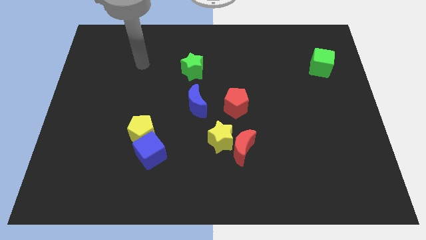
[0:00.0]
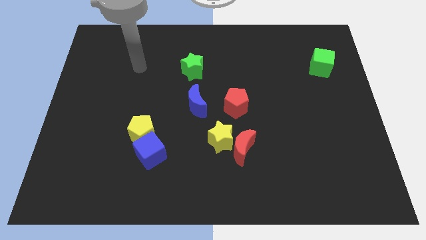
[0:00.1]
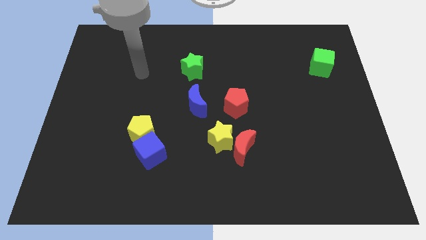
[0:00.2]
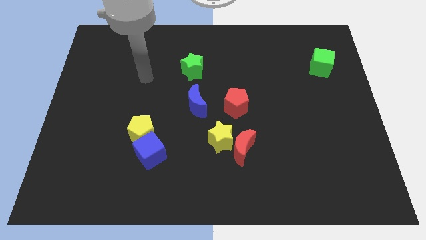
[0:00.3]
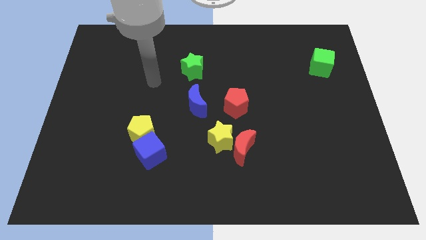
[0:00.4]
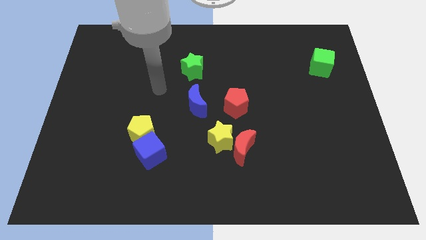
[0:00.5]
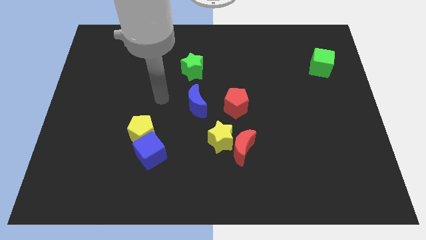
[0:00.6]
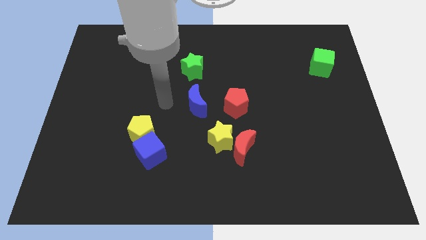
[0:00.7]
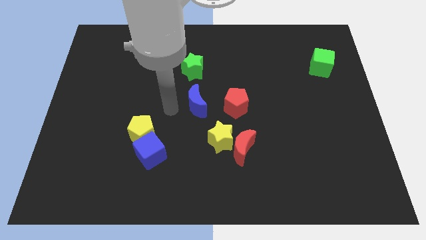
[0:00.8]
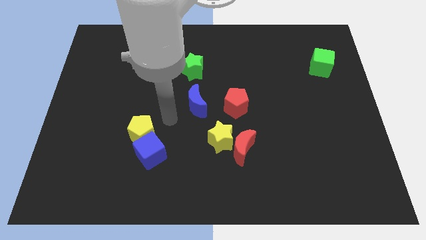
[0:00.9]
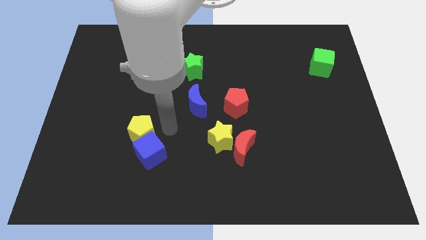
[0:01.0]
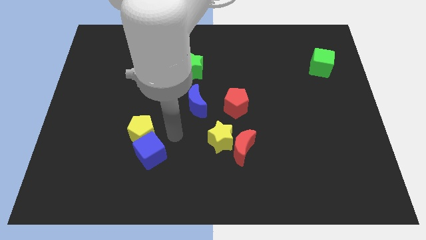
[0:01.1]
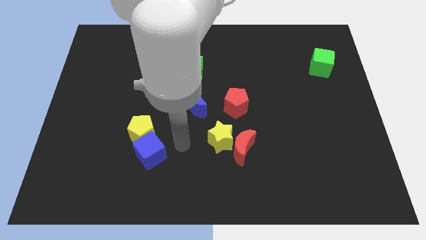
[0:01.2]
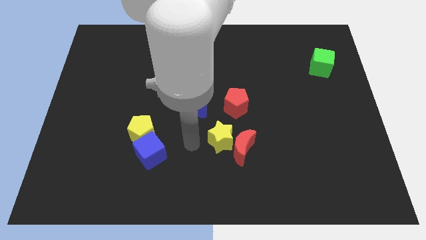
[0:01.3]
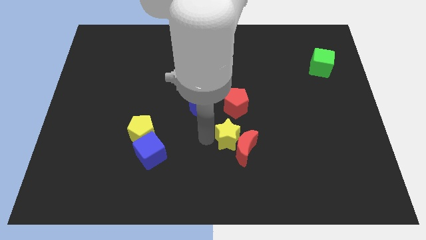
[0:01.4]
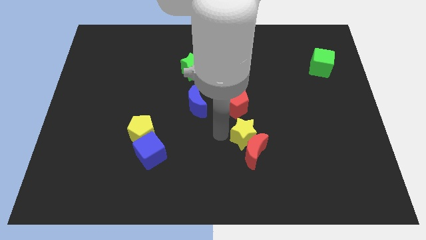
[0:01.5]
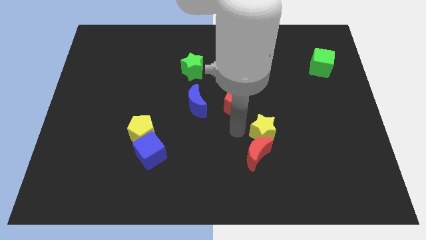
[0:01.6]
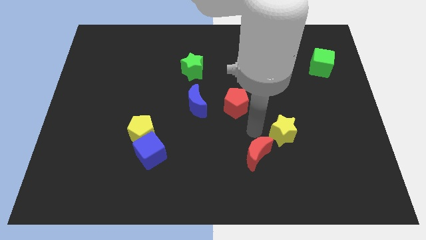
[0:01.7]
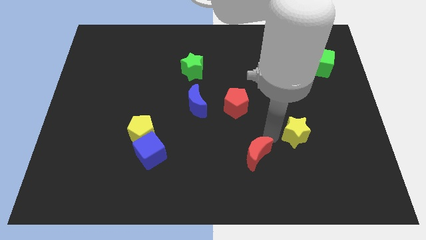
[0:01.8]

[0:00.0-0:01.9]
pull the red moon apart from the yellow star

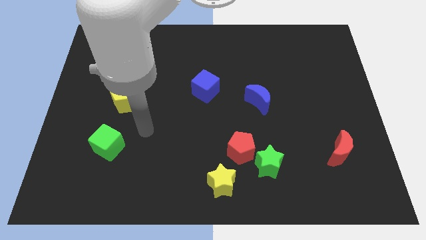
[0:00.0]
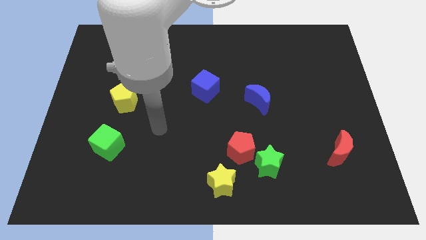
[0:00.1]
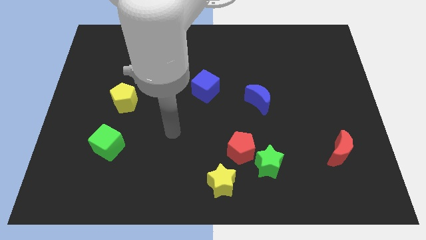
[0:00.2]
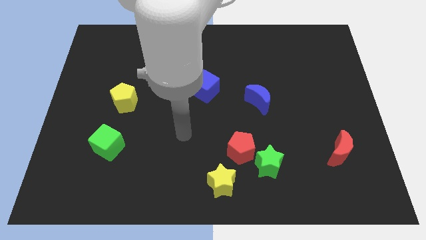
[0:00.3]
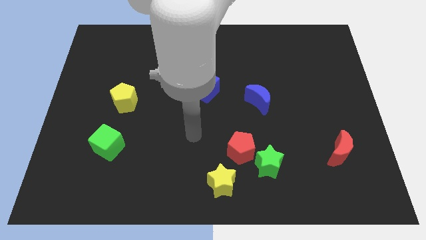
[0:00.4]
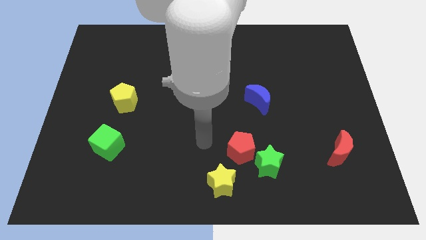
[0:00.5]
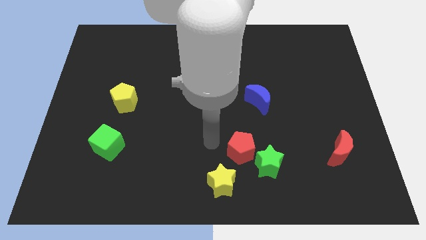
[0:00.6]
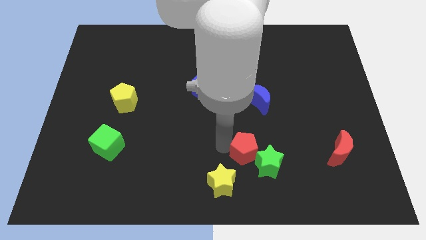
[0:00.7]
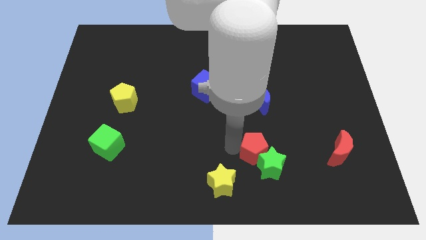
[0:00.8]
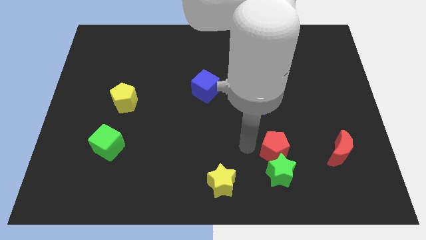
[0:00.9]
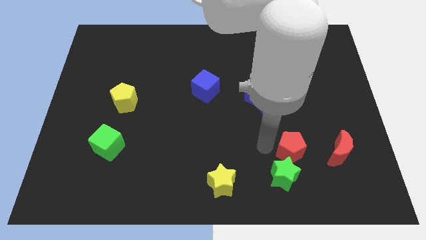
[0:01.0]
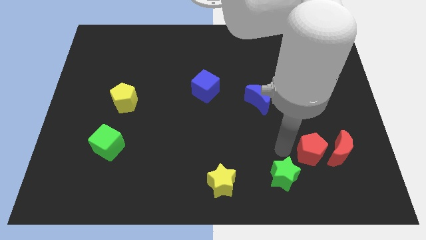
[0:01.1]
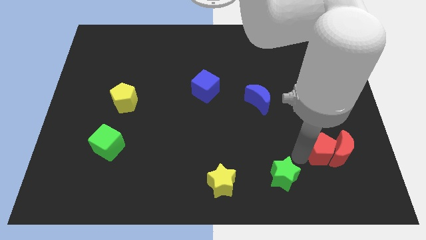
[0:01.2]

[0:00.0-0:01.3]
pull the green star apart from the red pentagon

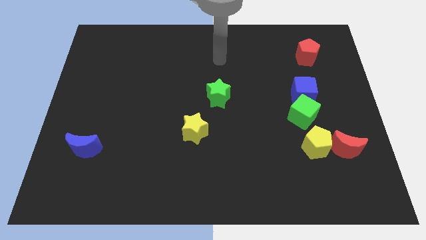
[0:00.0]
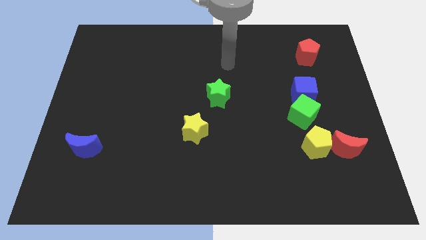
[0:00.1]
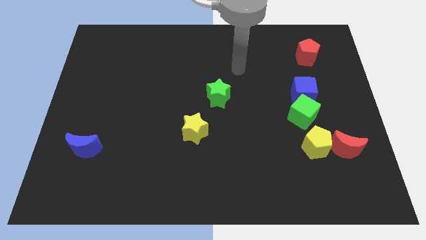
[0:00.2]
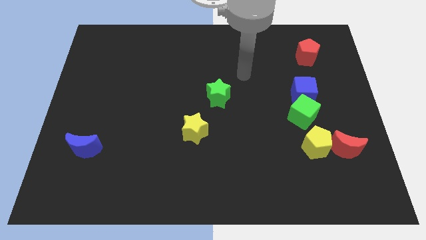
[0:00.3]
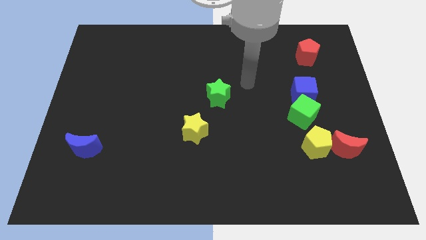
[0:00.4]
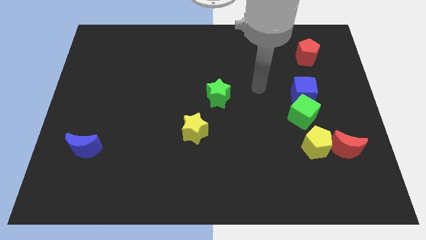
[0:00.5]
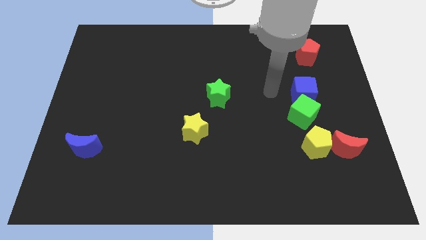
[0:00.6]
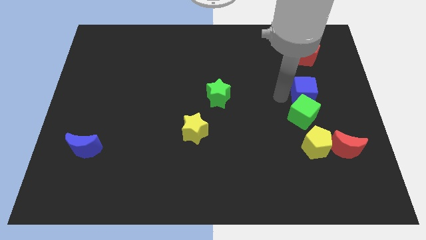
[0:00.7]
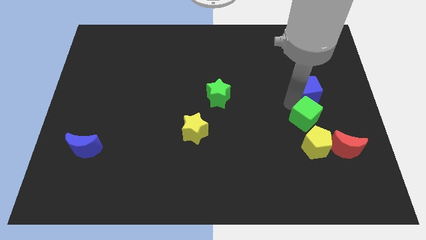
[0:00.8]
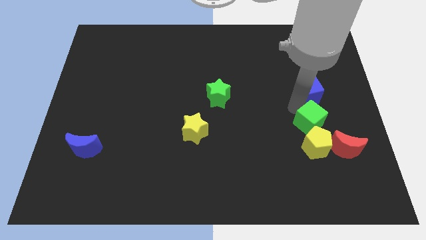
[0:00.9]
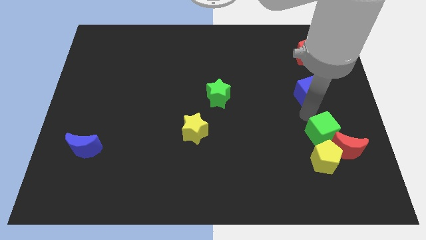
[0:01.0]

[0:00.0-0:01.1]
separate the blue cube from the green cube

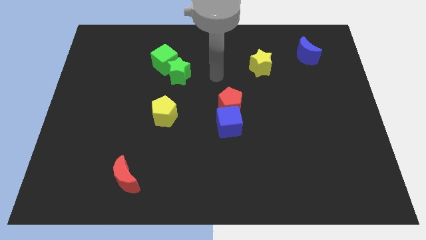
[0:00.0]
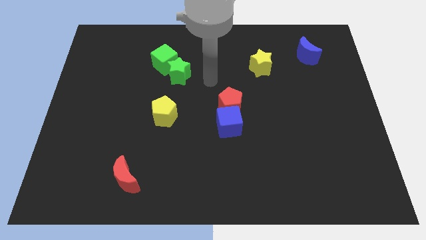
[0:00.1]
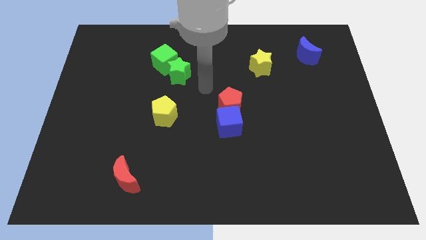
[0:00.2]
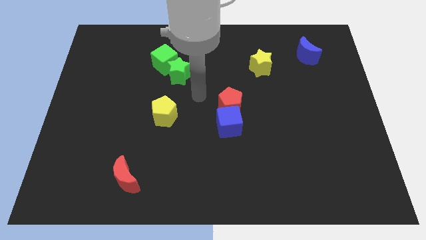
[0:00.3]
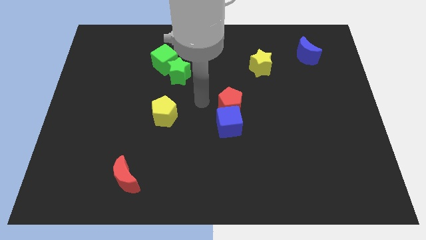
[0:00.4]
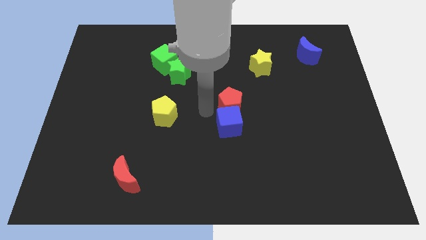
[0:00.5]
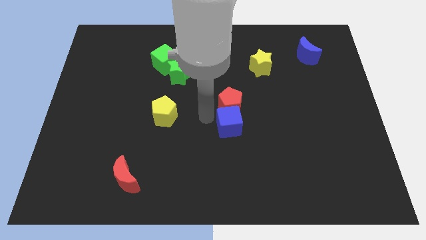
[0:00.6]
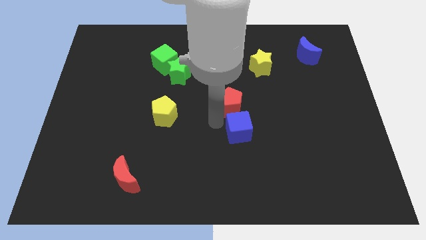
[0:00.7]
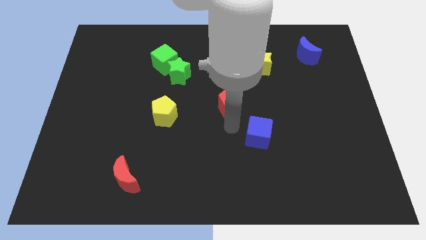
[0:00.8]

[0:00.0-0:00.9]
move the red pentagon away from the blue cube

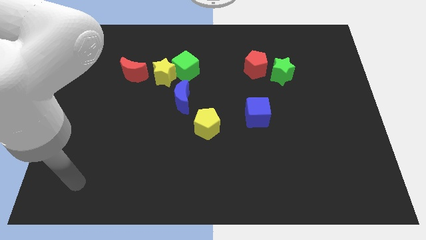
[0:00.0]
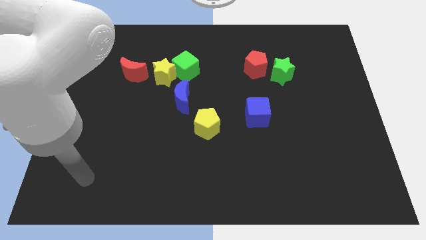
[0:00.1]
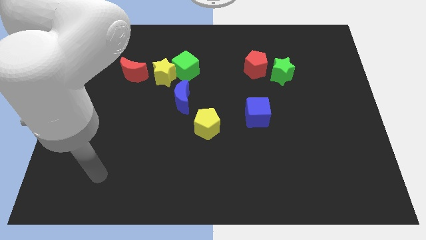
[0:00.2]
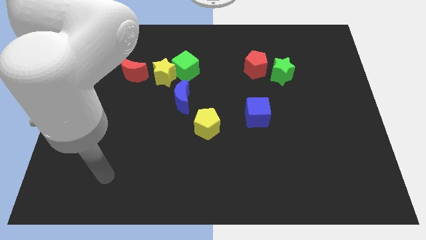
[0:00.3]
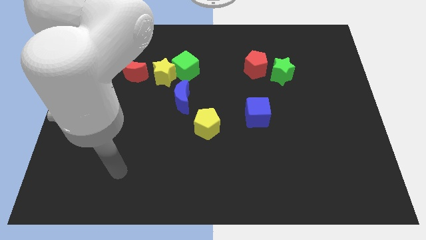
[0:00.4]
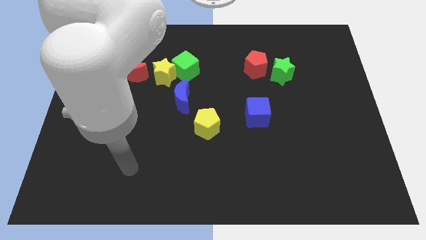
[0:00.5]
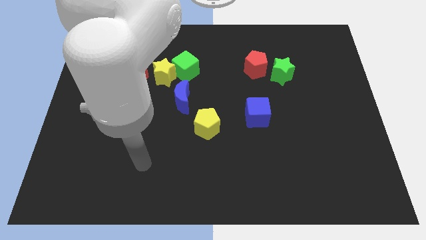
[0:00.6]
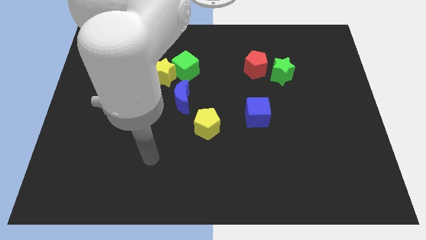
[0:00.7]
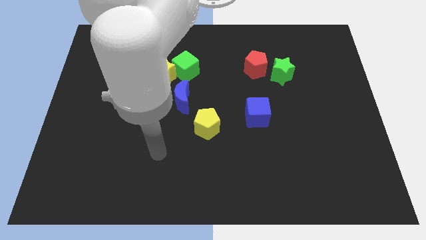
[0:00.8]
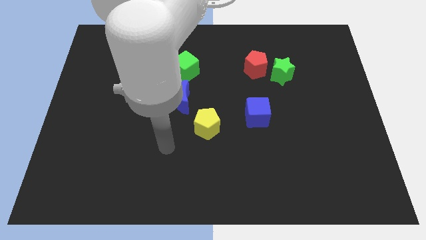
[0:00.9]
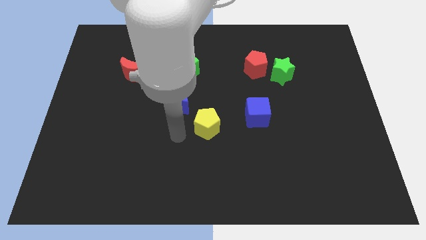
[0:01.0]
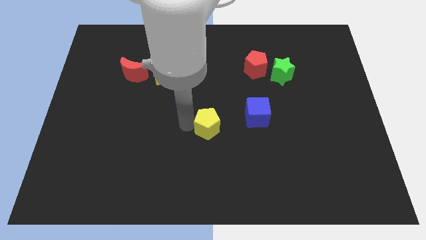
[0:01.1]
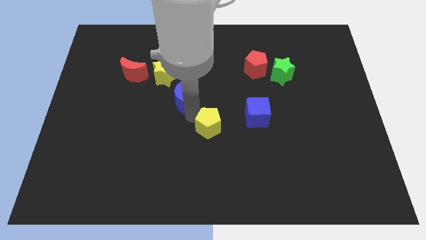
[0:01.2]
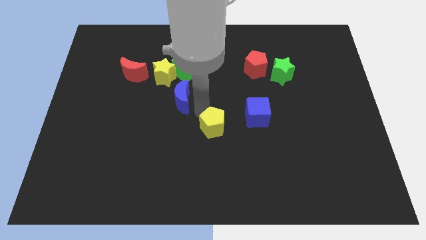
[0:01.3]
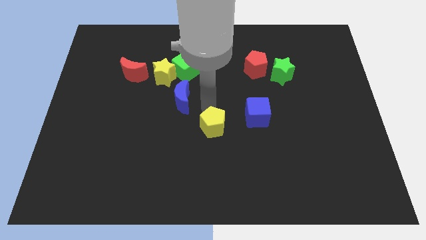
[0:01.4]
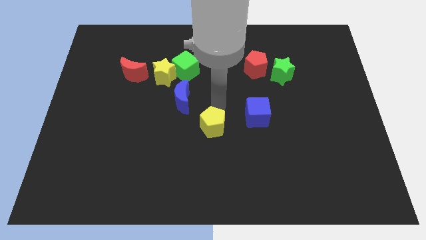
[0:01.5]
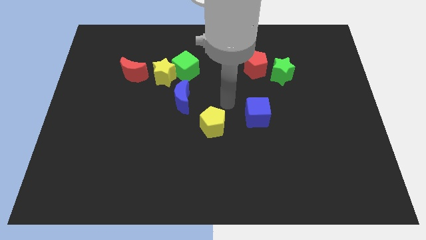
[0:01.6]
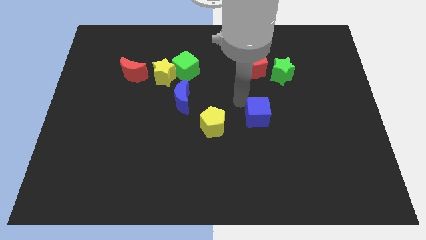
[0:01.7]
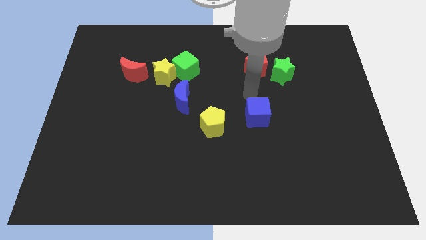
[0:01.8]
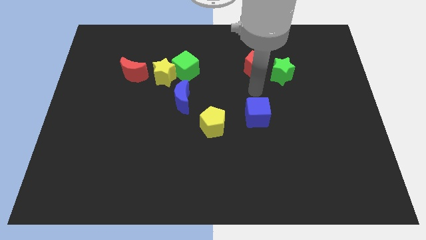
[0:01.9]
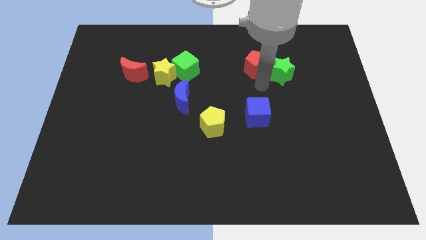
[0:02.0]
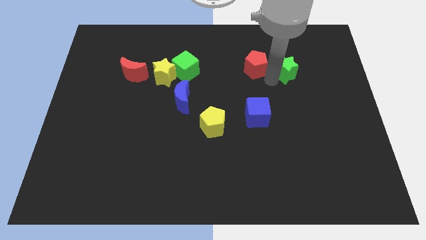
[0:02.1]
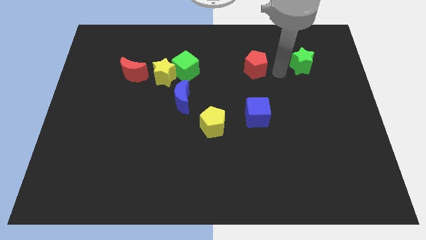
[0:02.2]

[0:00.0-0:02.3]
move the red pentagon away from the green star

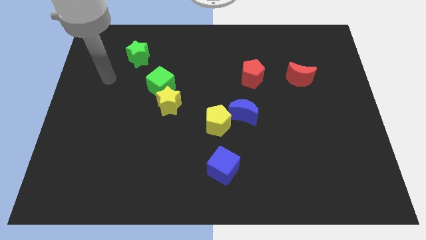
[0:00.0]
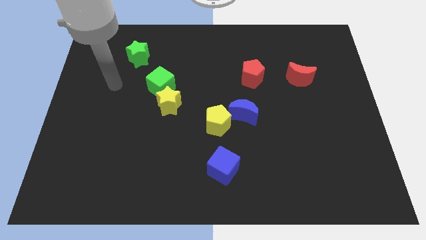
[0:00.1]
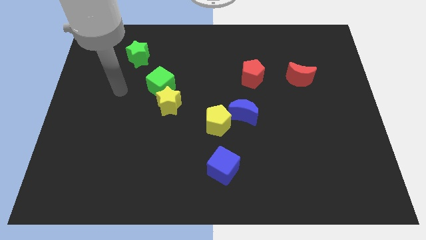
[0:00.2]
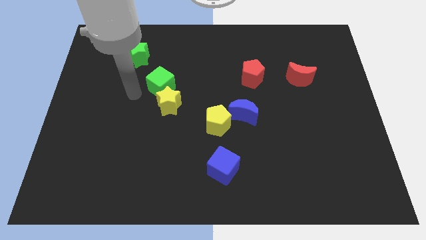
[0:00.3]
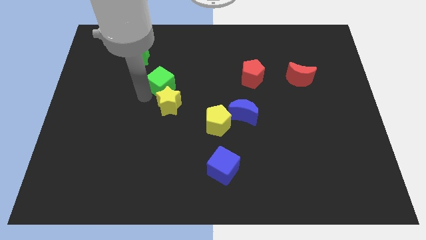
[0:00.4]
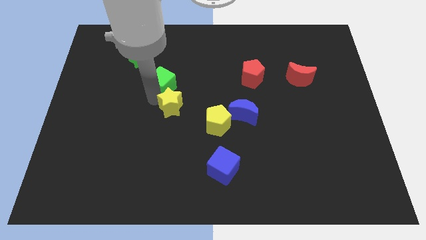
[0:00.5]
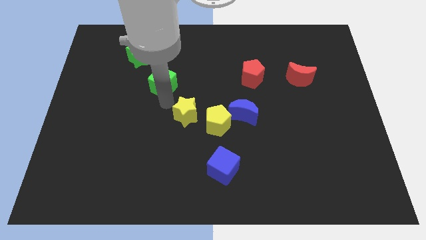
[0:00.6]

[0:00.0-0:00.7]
pull the green cube apart from the yellow star

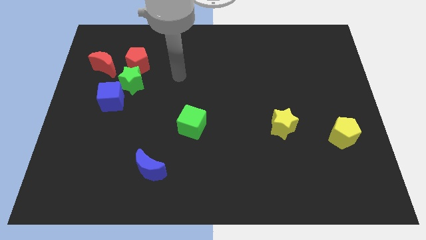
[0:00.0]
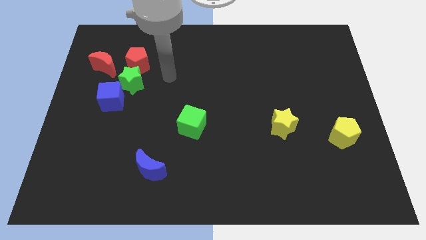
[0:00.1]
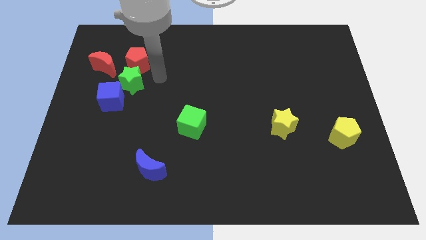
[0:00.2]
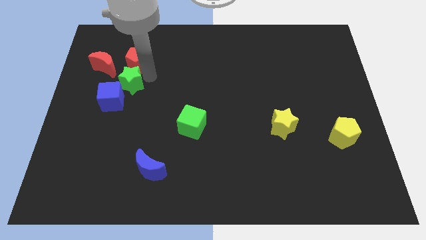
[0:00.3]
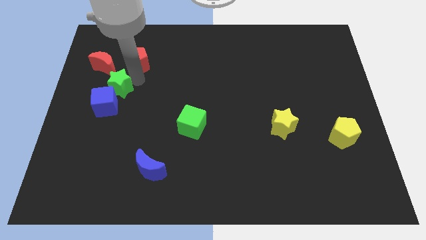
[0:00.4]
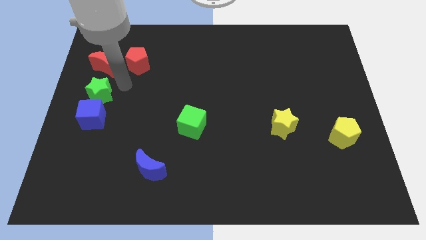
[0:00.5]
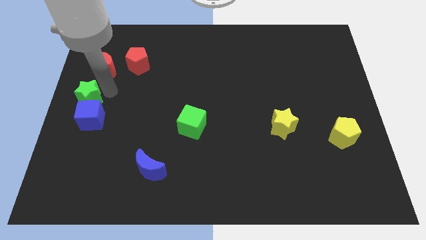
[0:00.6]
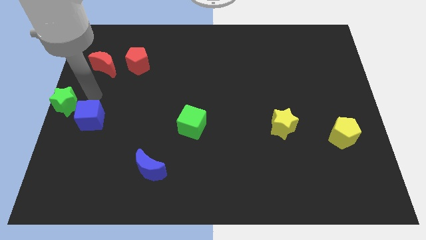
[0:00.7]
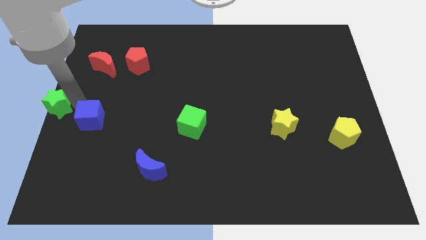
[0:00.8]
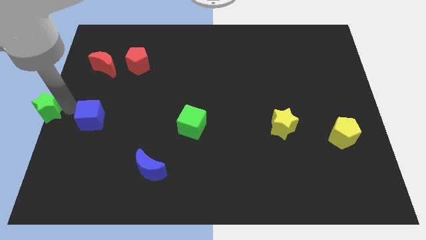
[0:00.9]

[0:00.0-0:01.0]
pull the blue cube apart from the green star

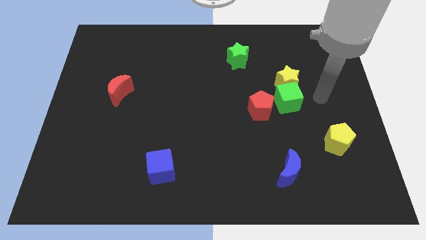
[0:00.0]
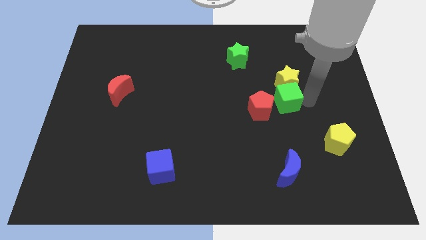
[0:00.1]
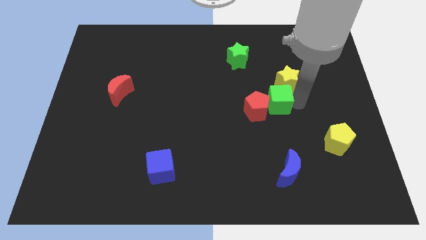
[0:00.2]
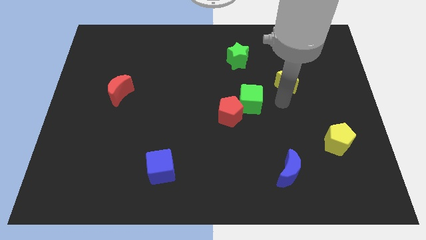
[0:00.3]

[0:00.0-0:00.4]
pull the yellow star apart from the green cube
